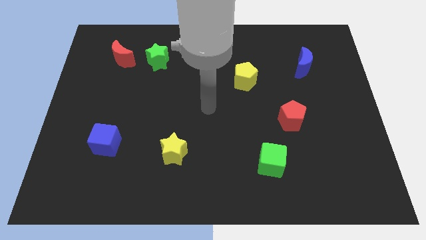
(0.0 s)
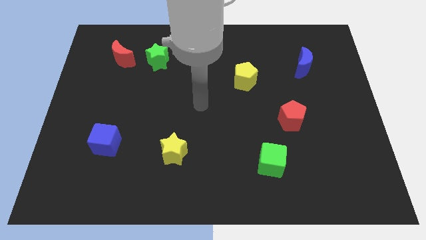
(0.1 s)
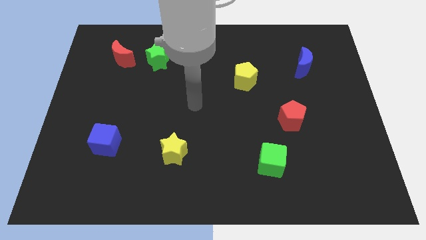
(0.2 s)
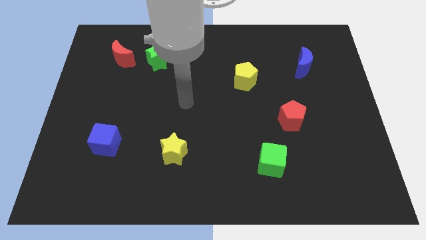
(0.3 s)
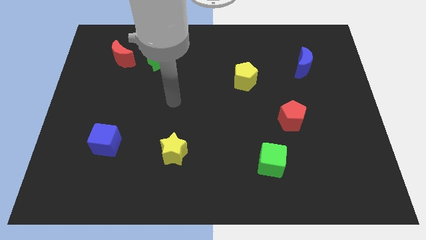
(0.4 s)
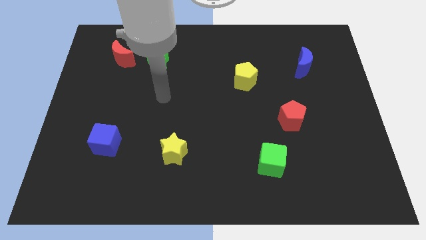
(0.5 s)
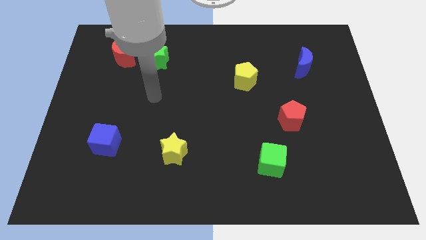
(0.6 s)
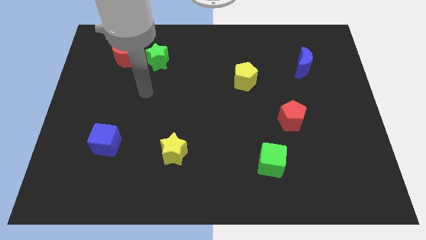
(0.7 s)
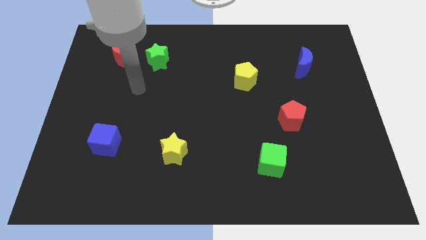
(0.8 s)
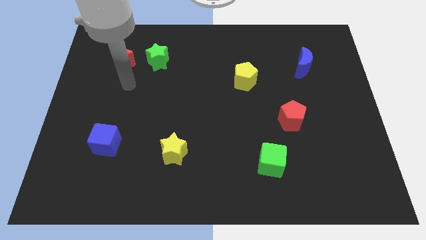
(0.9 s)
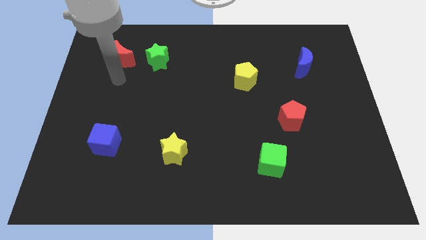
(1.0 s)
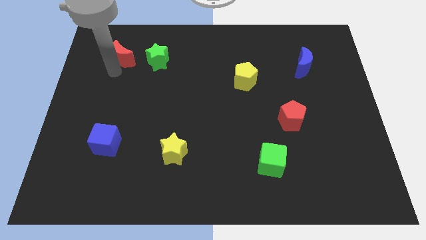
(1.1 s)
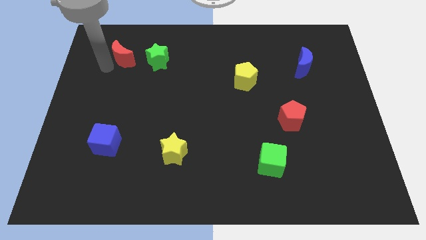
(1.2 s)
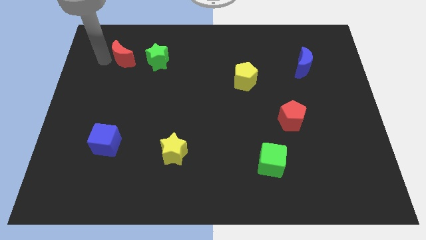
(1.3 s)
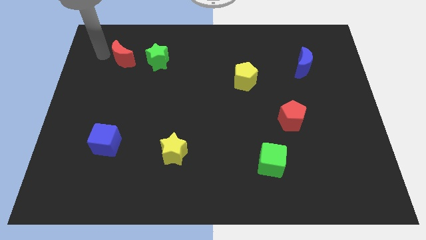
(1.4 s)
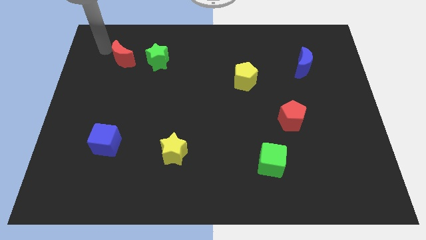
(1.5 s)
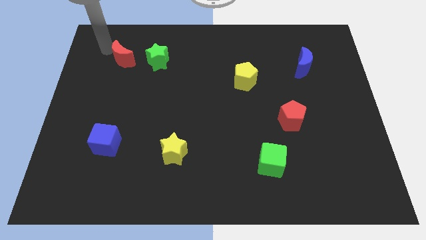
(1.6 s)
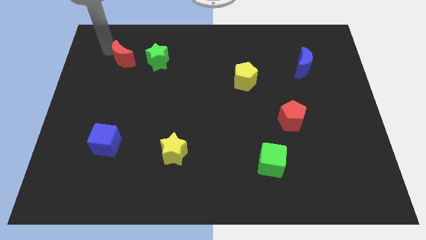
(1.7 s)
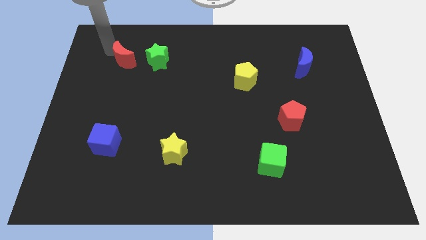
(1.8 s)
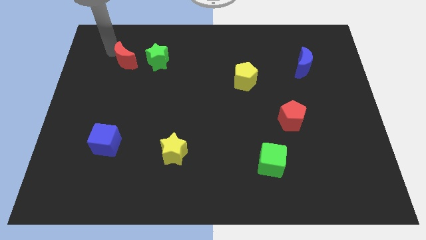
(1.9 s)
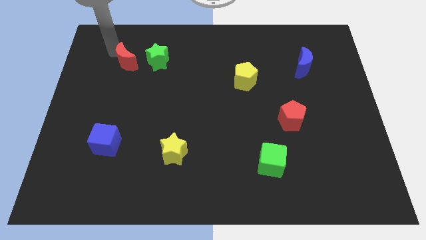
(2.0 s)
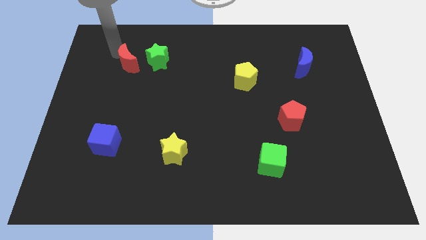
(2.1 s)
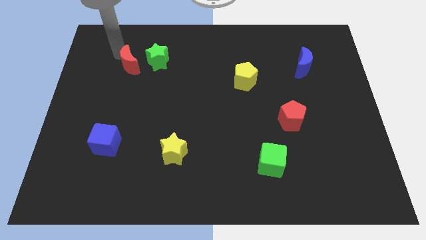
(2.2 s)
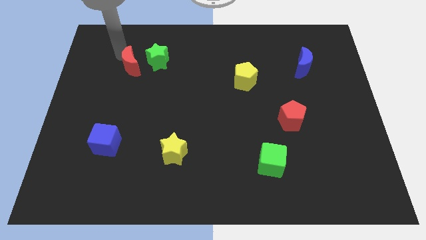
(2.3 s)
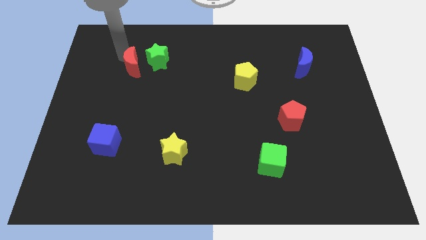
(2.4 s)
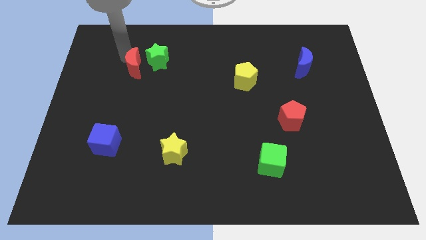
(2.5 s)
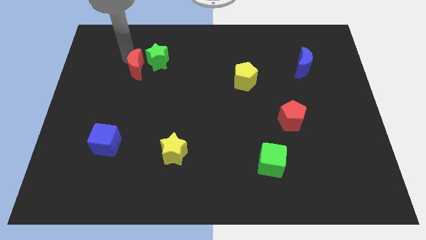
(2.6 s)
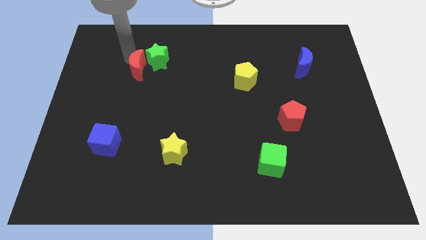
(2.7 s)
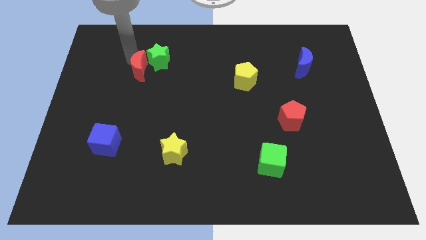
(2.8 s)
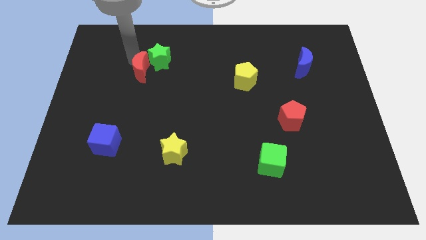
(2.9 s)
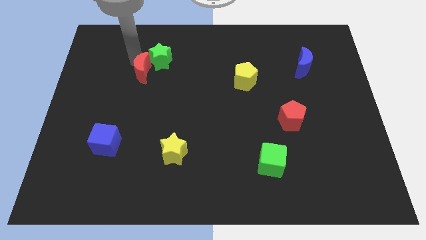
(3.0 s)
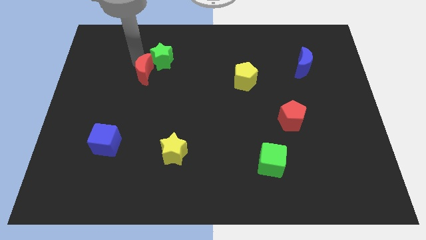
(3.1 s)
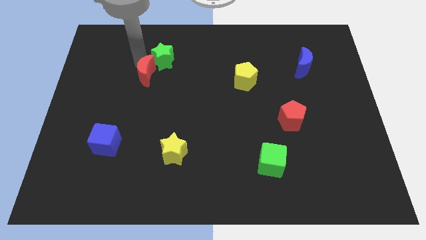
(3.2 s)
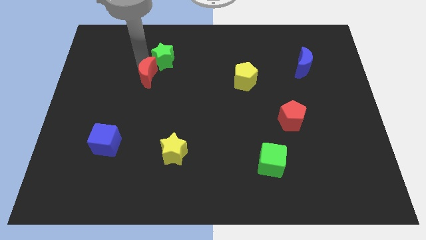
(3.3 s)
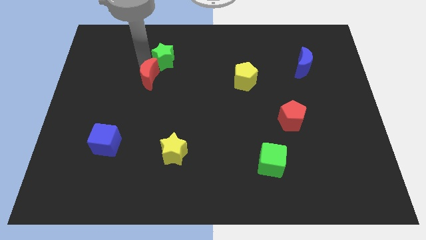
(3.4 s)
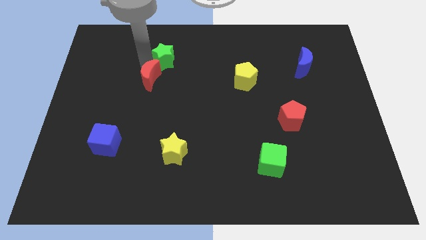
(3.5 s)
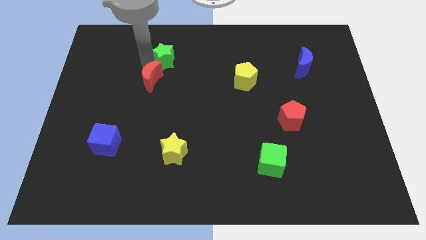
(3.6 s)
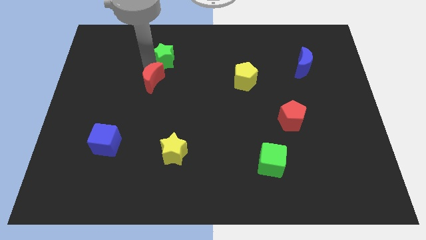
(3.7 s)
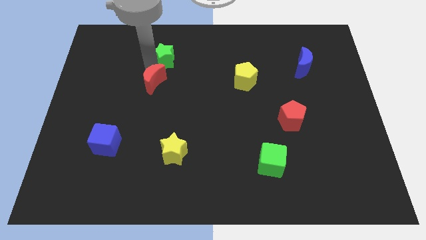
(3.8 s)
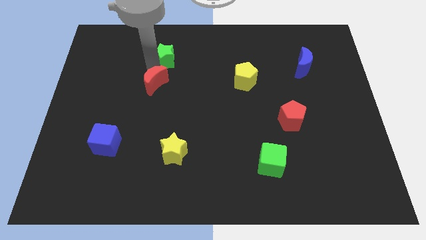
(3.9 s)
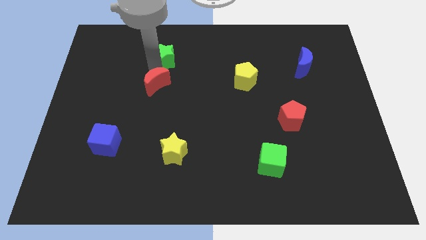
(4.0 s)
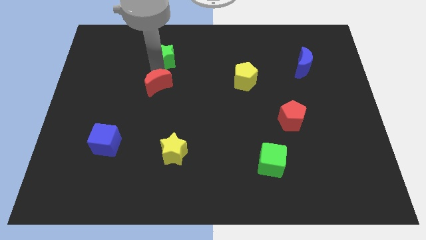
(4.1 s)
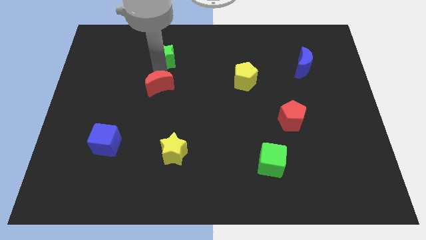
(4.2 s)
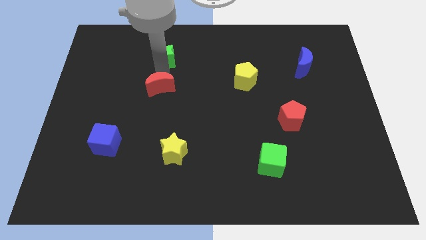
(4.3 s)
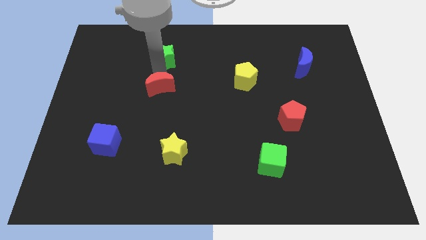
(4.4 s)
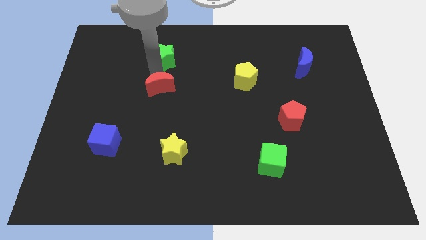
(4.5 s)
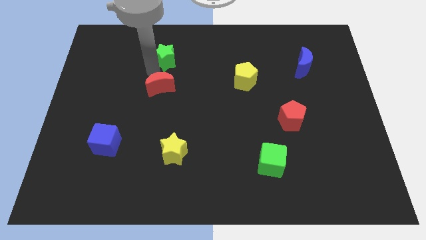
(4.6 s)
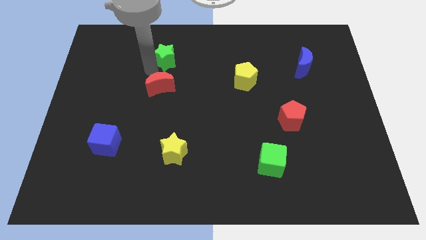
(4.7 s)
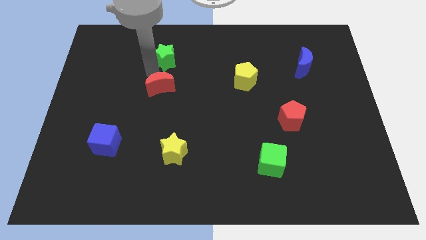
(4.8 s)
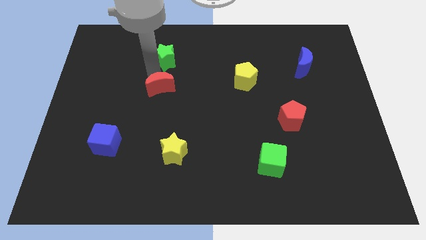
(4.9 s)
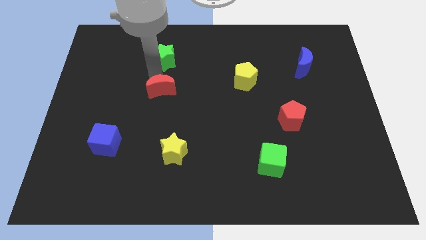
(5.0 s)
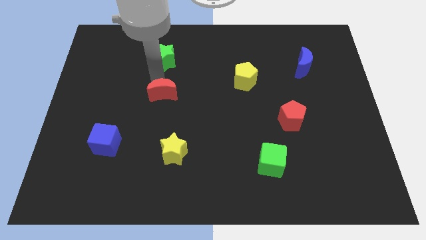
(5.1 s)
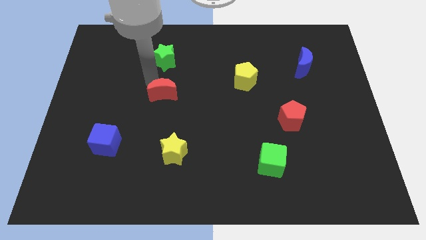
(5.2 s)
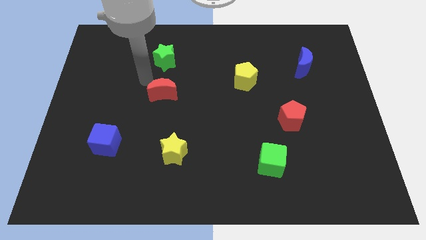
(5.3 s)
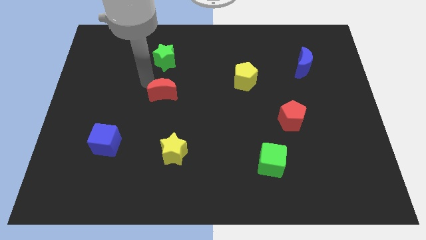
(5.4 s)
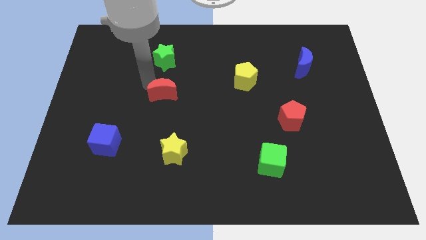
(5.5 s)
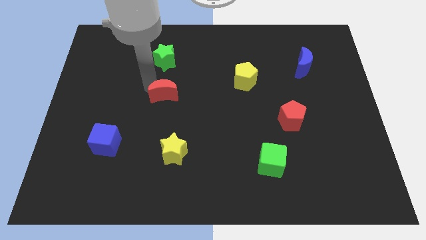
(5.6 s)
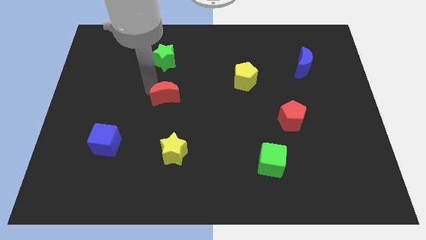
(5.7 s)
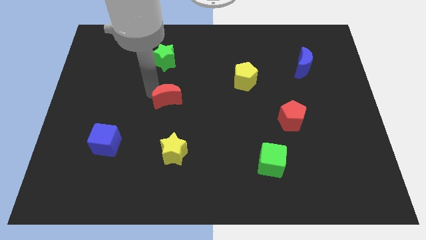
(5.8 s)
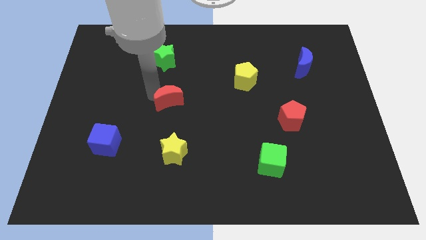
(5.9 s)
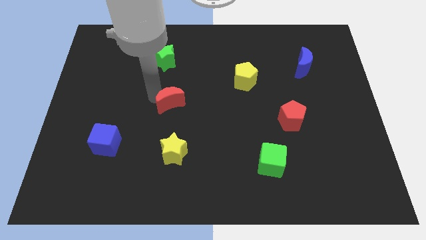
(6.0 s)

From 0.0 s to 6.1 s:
slide the red moon down and then to the right

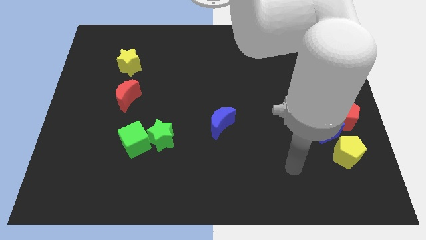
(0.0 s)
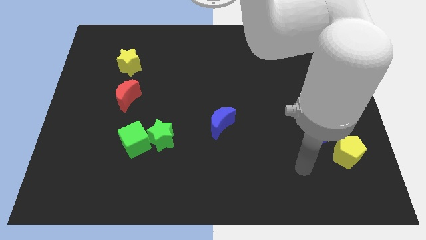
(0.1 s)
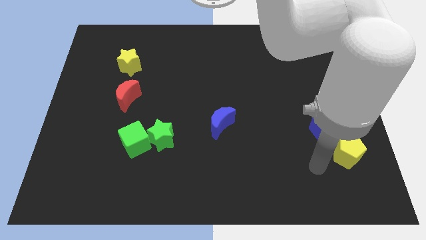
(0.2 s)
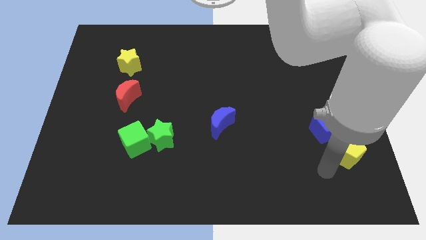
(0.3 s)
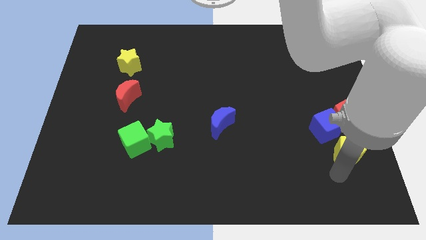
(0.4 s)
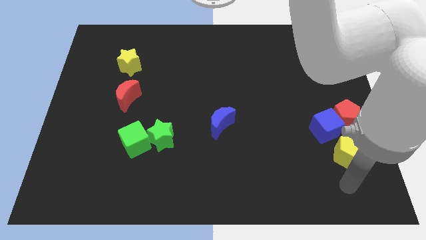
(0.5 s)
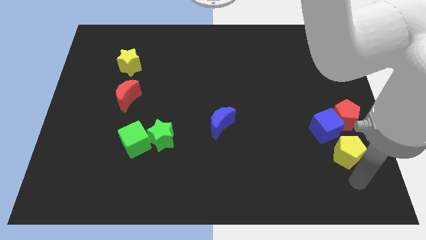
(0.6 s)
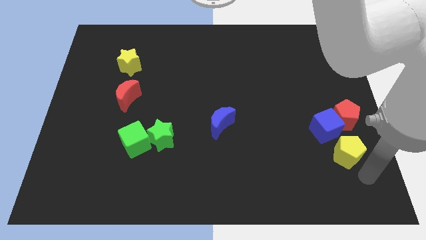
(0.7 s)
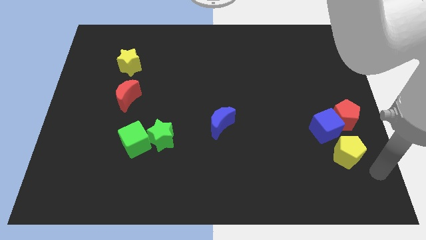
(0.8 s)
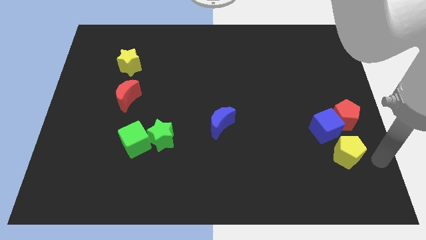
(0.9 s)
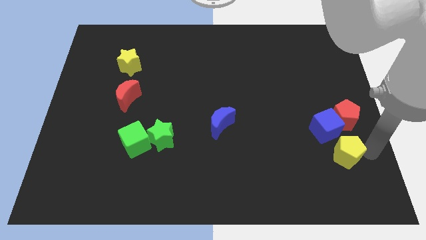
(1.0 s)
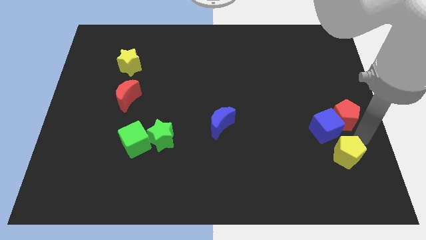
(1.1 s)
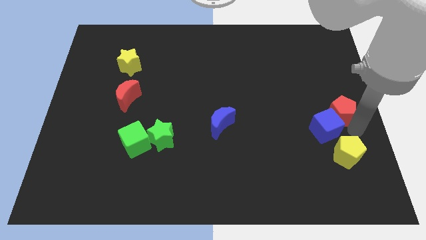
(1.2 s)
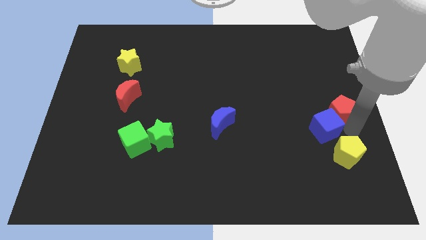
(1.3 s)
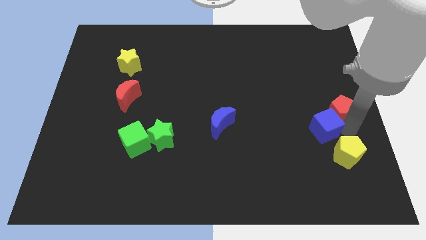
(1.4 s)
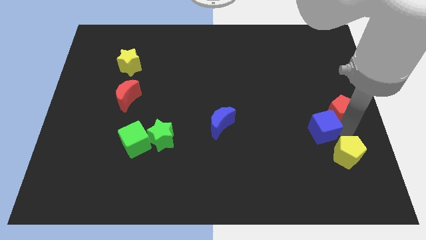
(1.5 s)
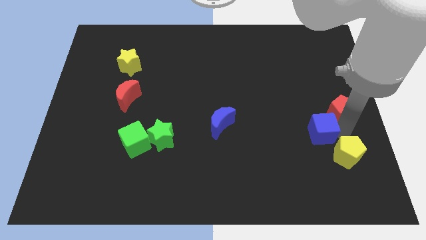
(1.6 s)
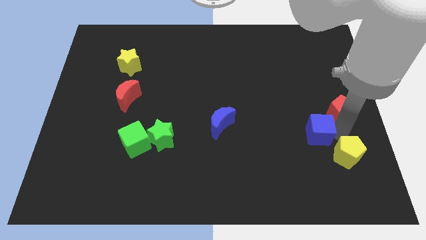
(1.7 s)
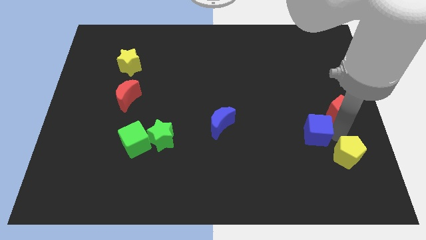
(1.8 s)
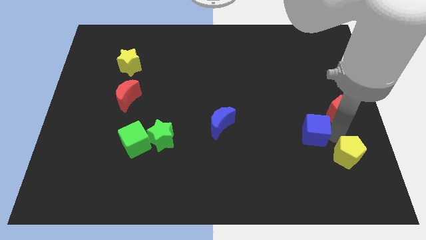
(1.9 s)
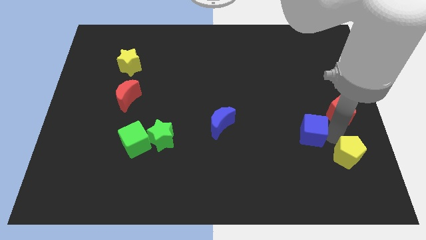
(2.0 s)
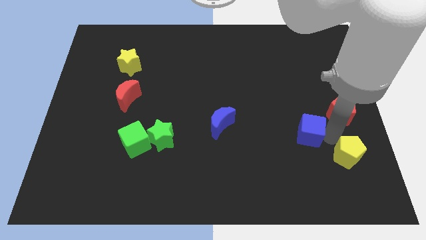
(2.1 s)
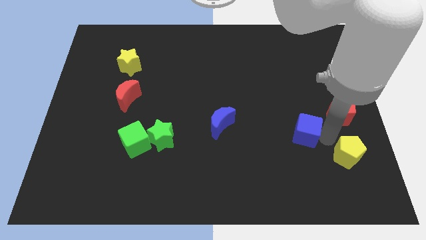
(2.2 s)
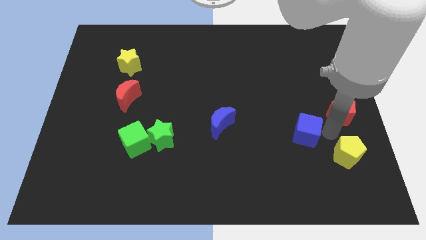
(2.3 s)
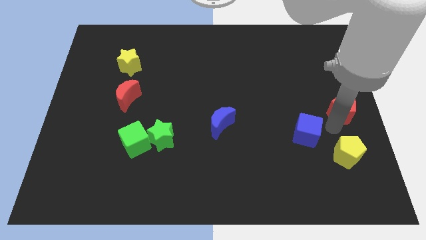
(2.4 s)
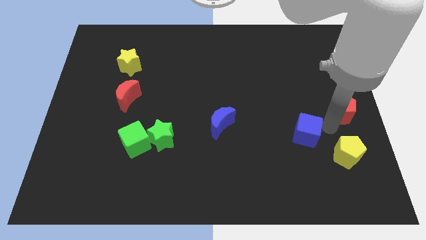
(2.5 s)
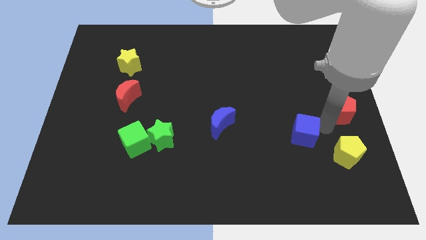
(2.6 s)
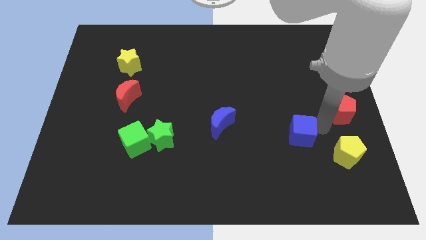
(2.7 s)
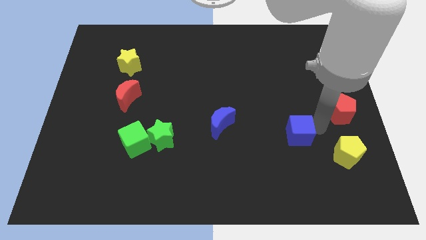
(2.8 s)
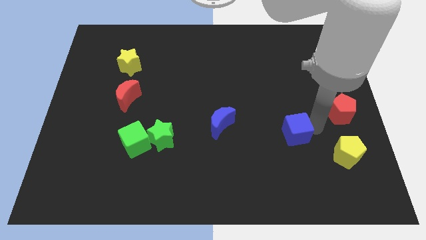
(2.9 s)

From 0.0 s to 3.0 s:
slightly move the blue cube to the left
